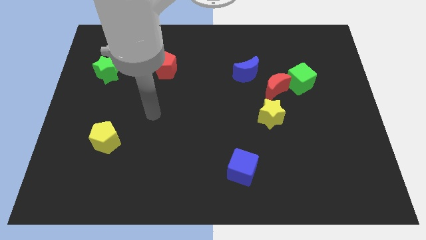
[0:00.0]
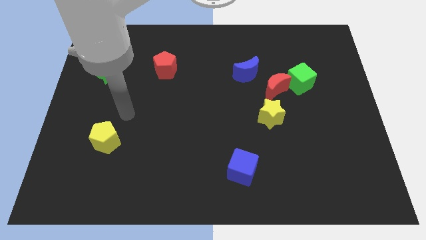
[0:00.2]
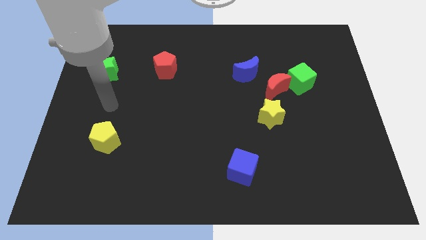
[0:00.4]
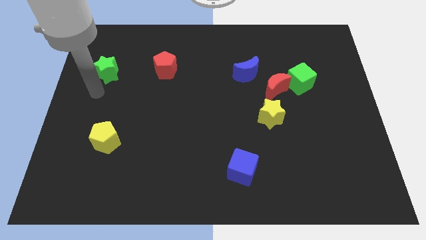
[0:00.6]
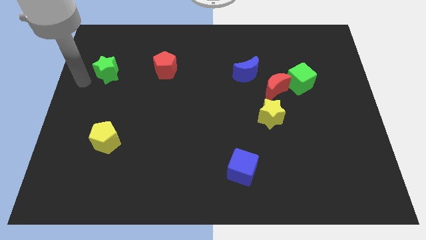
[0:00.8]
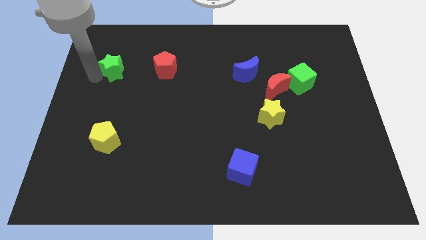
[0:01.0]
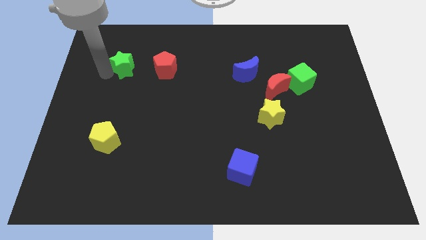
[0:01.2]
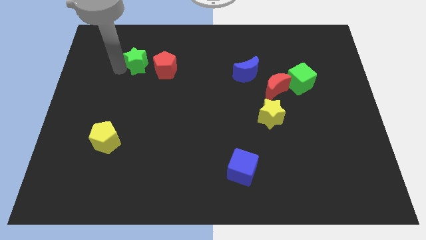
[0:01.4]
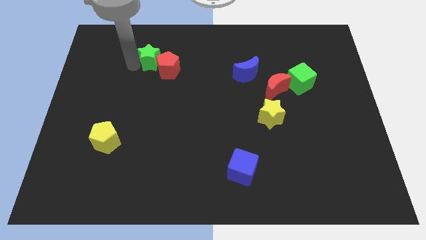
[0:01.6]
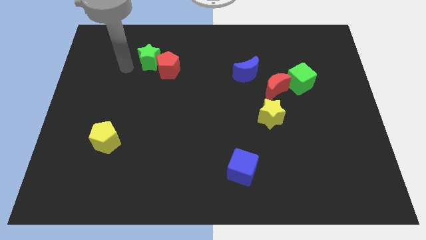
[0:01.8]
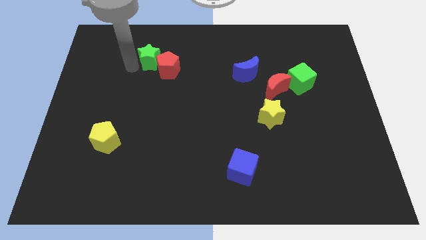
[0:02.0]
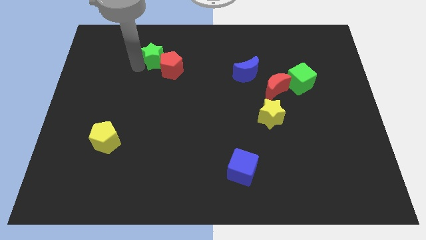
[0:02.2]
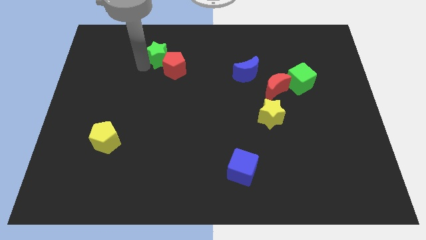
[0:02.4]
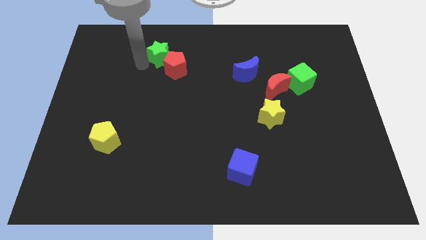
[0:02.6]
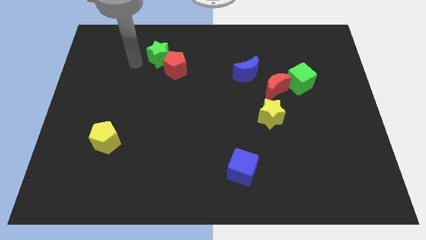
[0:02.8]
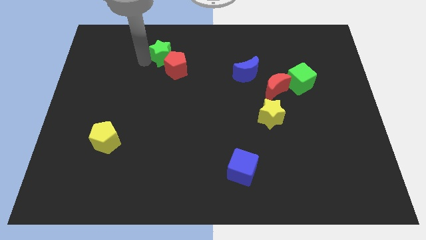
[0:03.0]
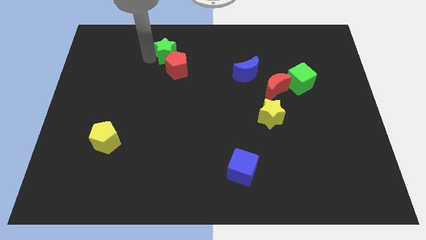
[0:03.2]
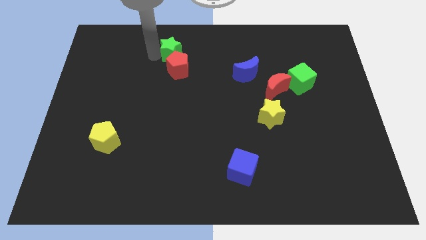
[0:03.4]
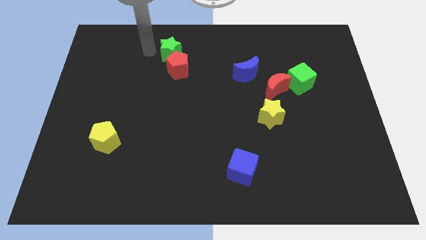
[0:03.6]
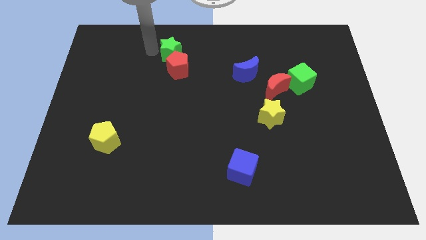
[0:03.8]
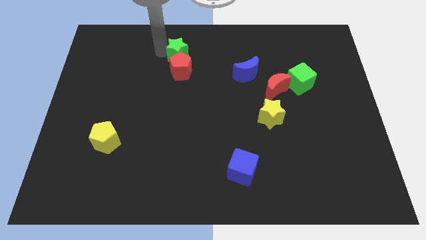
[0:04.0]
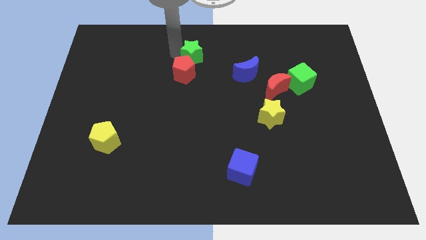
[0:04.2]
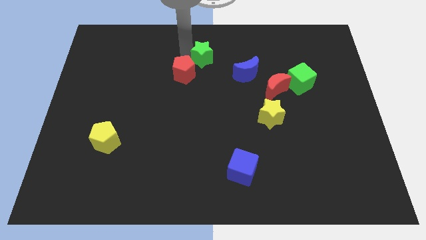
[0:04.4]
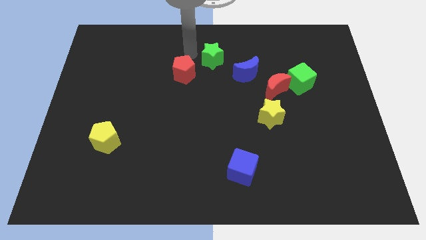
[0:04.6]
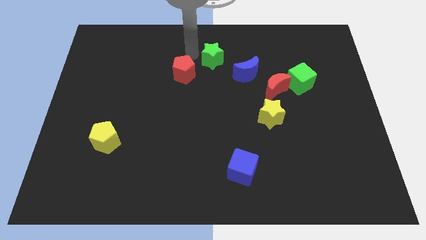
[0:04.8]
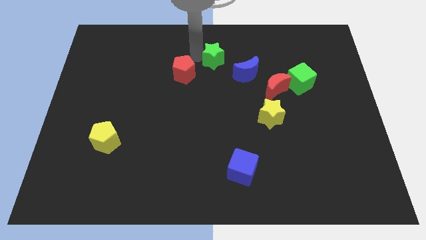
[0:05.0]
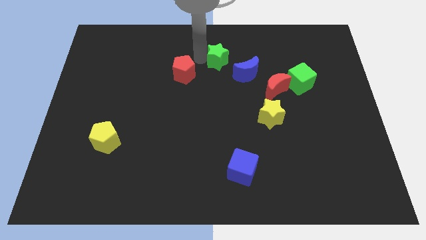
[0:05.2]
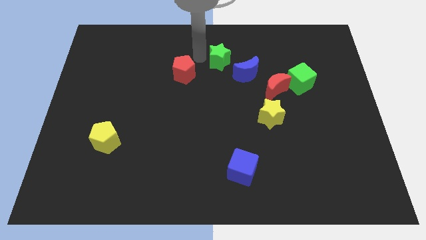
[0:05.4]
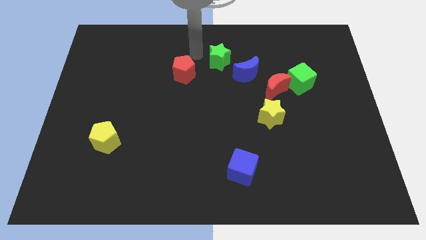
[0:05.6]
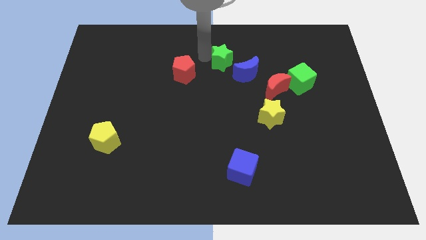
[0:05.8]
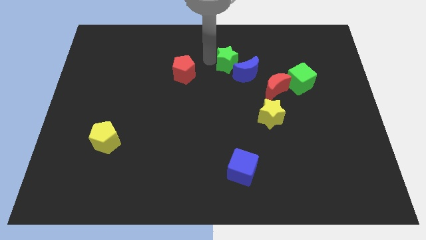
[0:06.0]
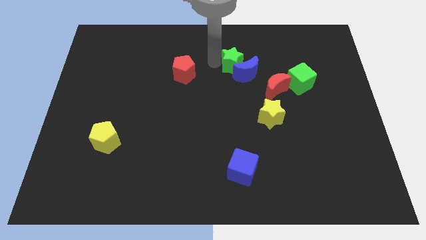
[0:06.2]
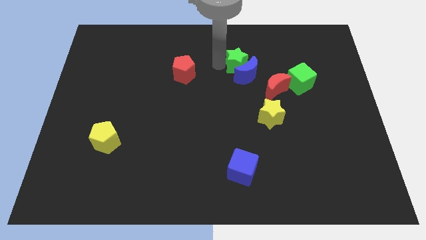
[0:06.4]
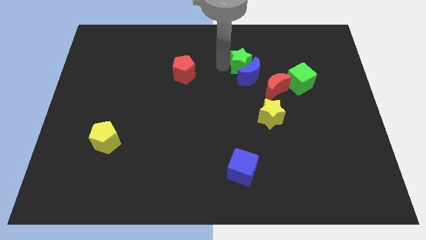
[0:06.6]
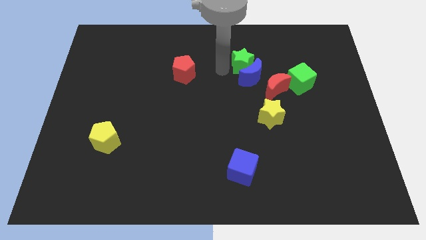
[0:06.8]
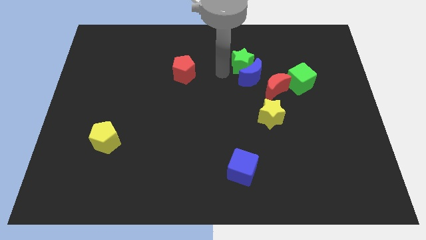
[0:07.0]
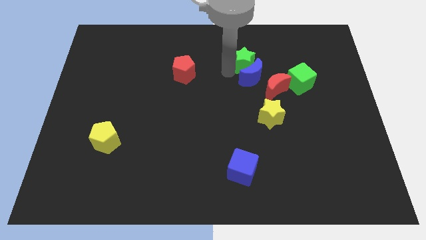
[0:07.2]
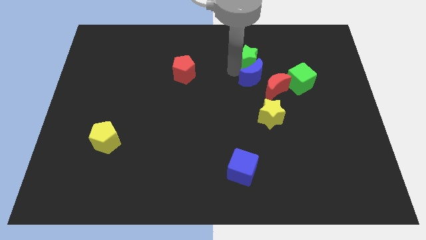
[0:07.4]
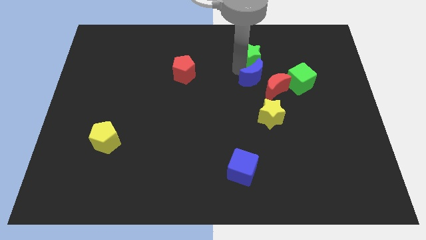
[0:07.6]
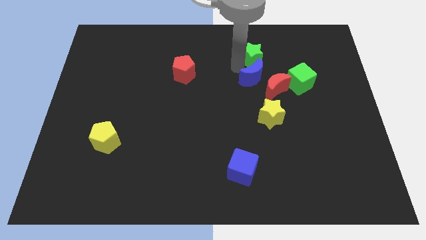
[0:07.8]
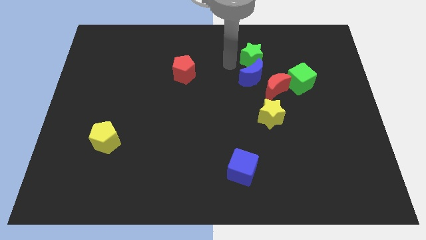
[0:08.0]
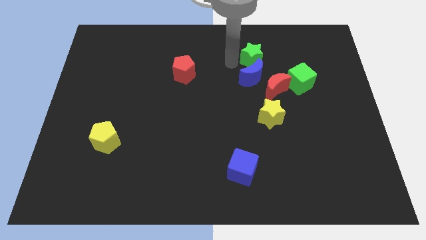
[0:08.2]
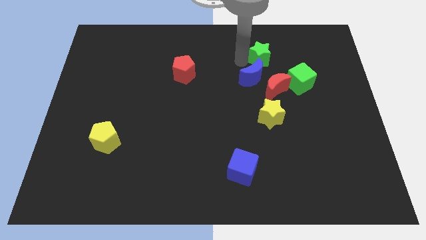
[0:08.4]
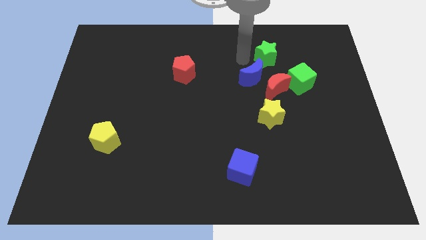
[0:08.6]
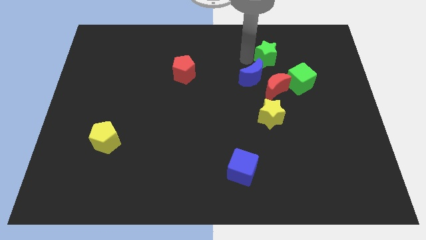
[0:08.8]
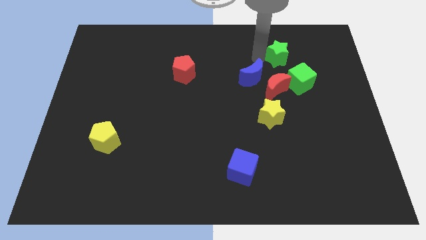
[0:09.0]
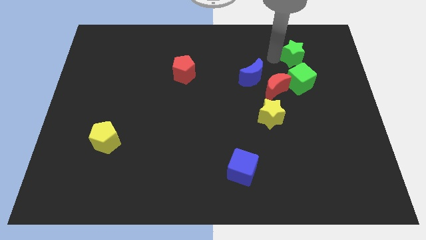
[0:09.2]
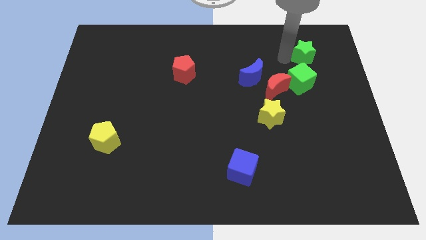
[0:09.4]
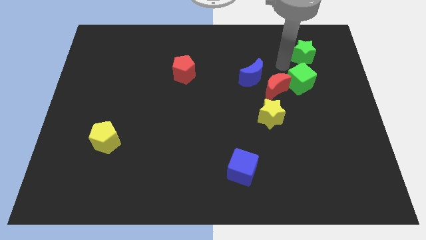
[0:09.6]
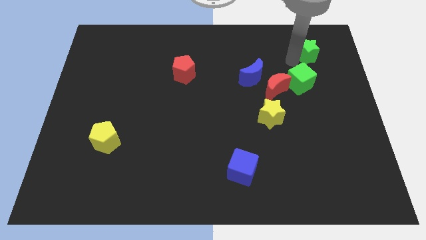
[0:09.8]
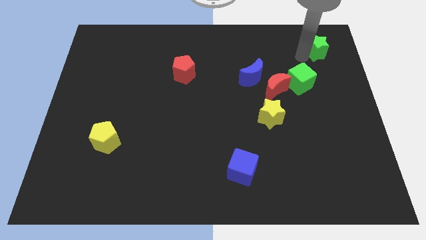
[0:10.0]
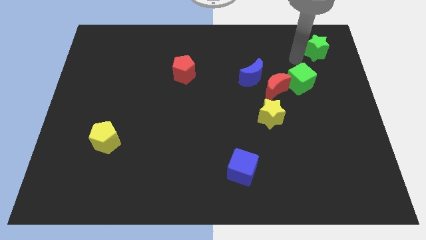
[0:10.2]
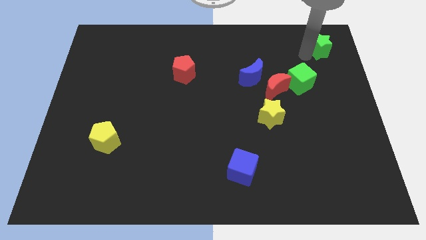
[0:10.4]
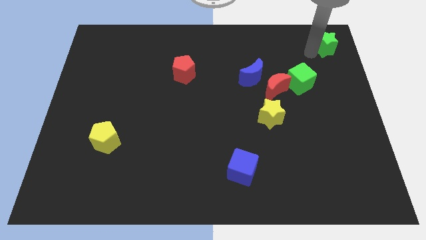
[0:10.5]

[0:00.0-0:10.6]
put the green star to the top right
